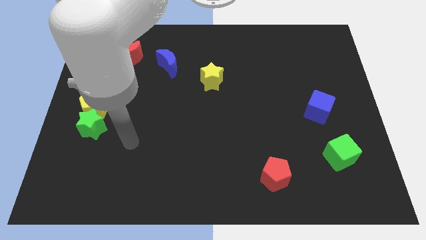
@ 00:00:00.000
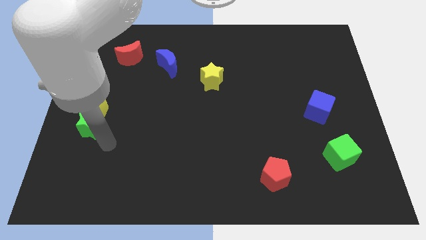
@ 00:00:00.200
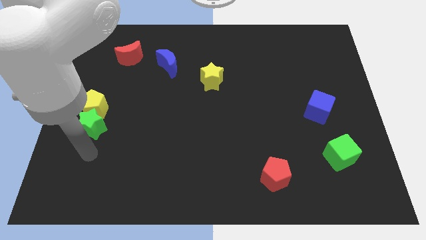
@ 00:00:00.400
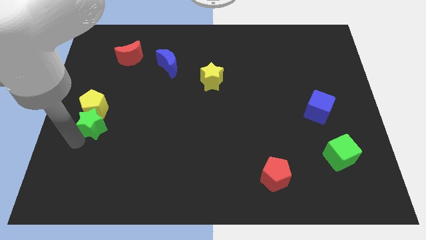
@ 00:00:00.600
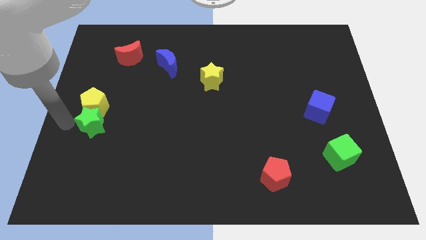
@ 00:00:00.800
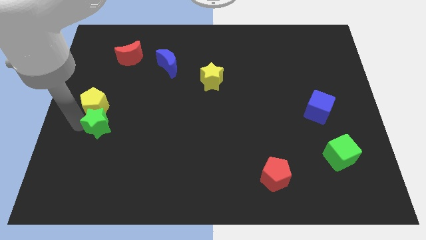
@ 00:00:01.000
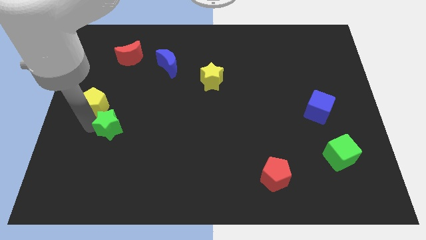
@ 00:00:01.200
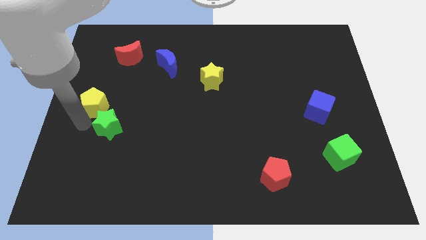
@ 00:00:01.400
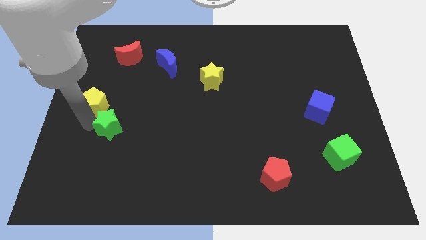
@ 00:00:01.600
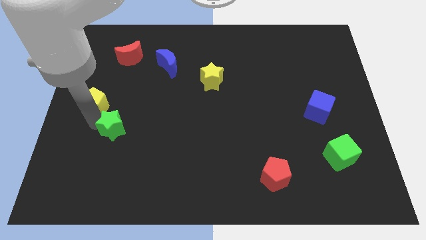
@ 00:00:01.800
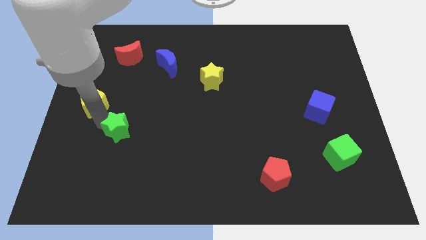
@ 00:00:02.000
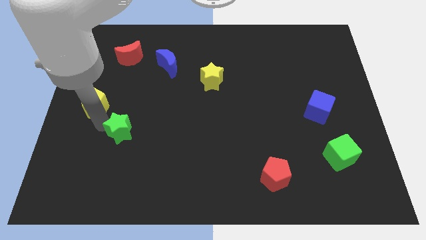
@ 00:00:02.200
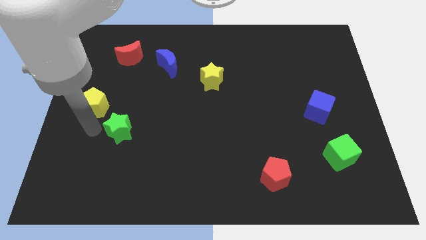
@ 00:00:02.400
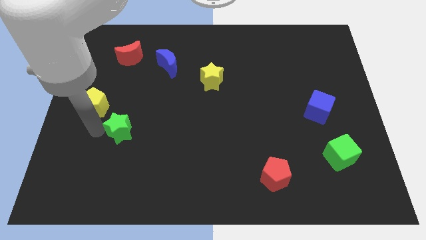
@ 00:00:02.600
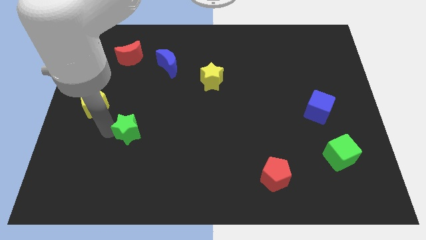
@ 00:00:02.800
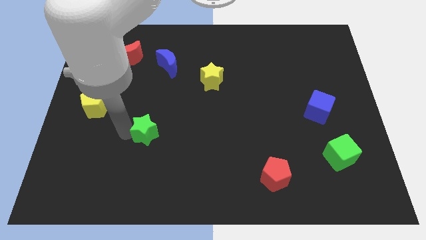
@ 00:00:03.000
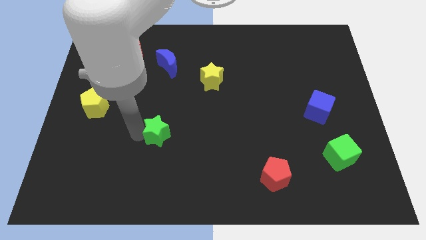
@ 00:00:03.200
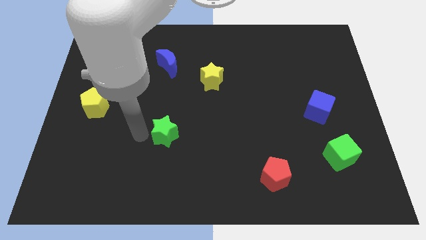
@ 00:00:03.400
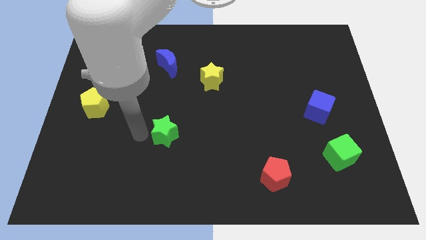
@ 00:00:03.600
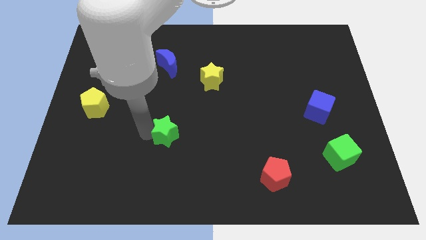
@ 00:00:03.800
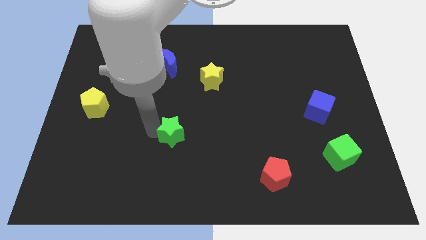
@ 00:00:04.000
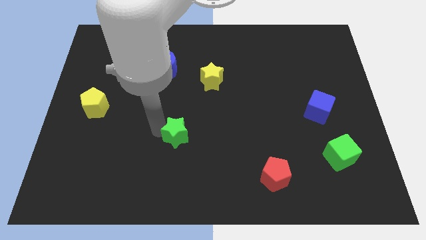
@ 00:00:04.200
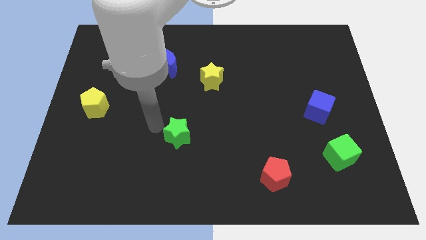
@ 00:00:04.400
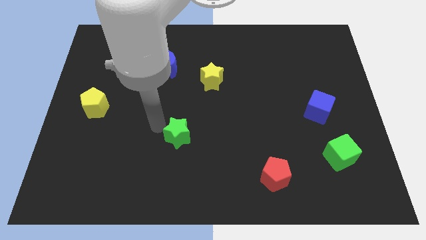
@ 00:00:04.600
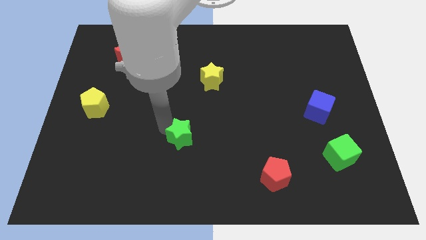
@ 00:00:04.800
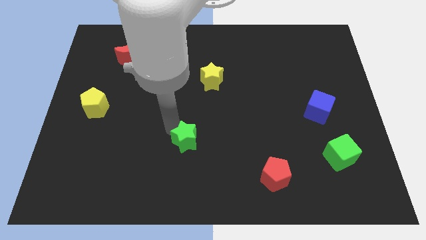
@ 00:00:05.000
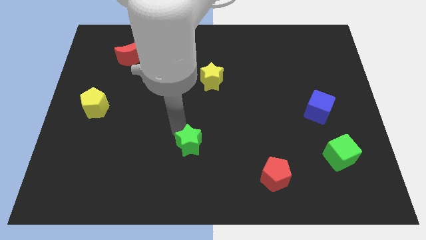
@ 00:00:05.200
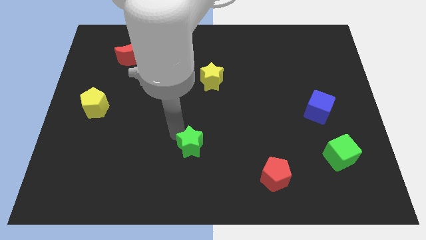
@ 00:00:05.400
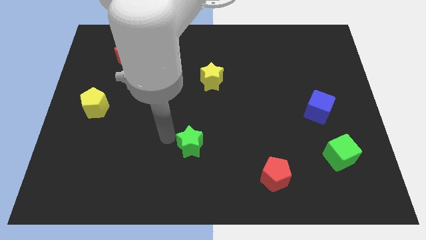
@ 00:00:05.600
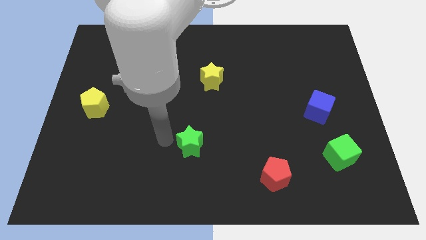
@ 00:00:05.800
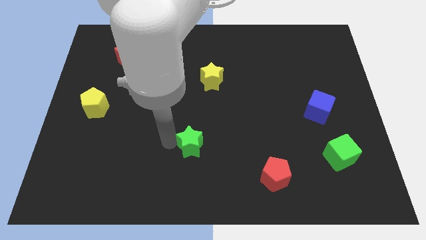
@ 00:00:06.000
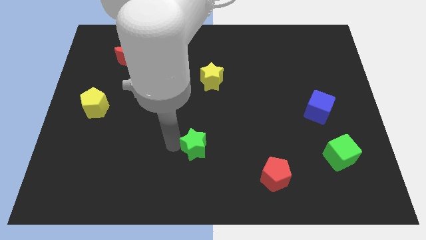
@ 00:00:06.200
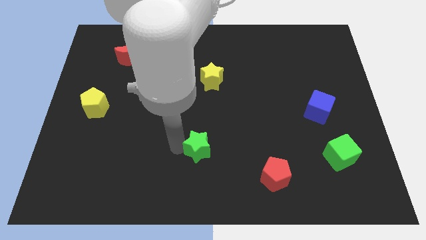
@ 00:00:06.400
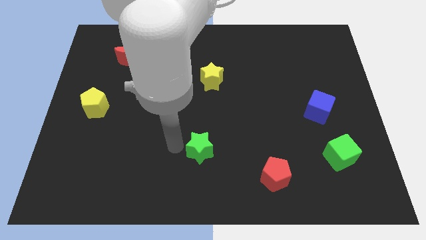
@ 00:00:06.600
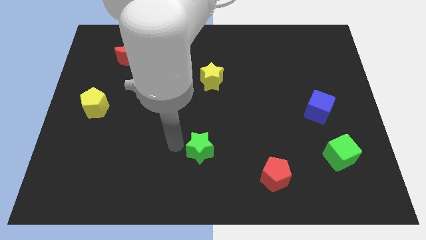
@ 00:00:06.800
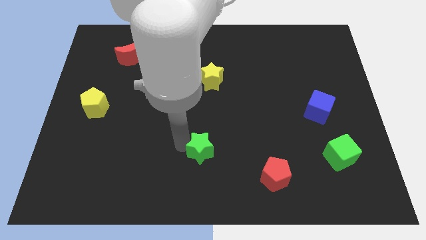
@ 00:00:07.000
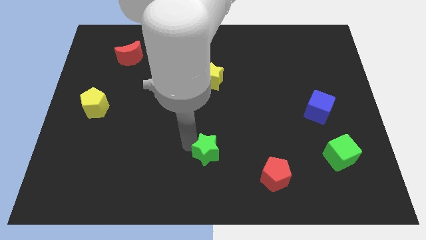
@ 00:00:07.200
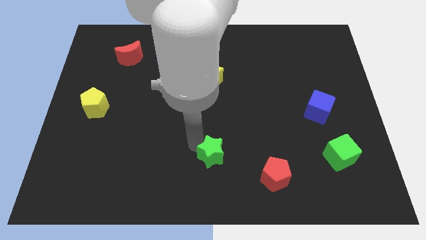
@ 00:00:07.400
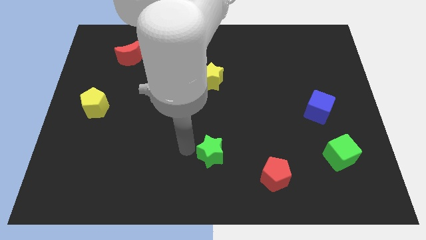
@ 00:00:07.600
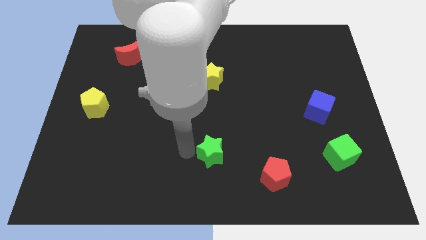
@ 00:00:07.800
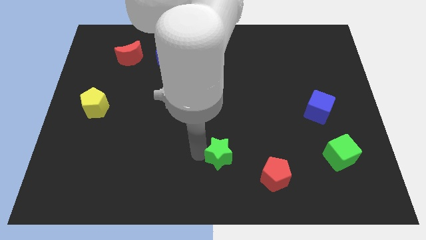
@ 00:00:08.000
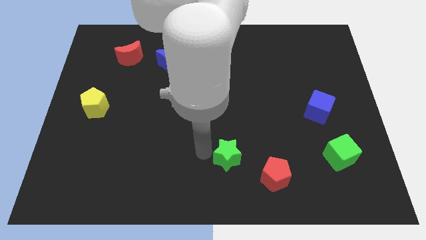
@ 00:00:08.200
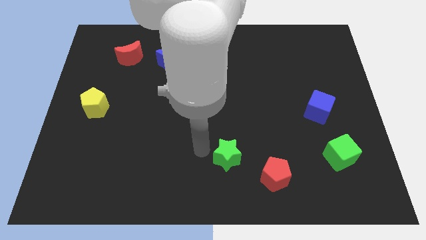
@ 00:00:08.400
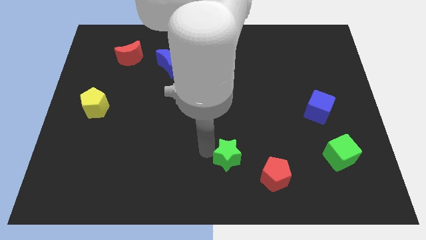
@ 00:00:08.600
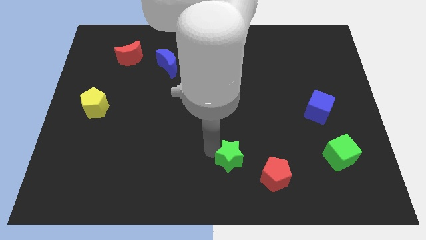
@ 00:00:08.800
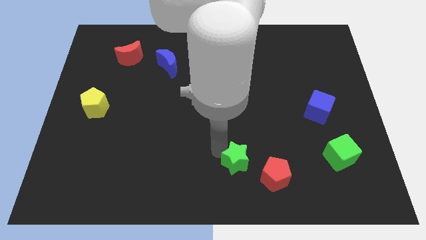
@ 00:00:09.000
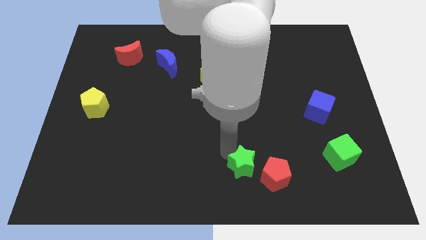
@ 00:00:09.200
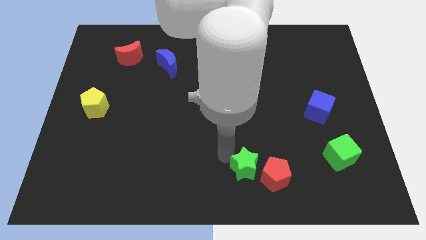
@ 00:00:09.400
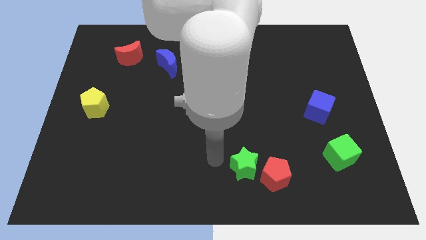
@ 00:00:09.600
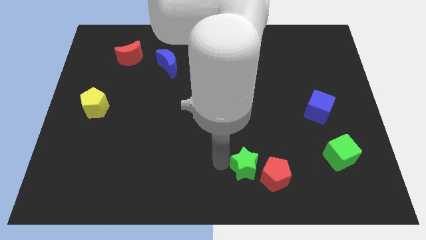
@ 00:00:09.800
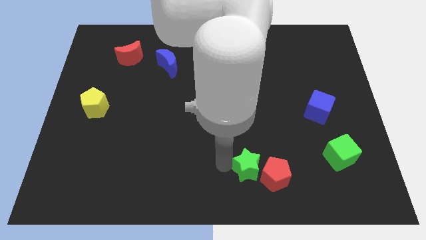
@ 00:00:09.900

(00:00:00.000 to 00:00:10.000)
push the green star towards the red pentagon

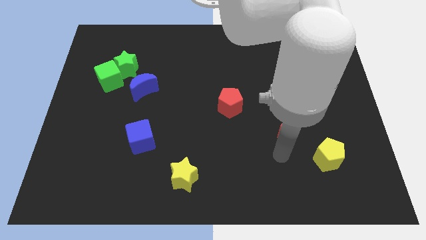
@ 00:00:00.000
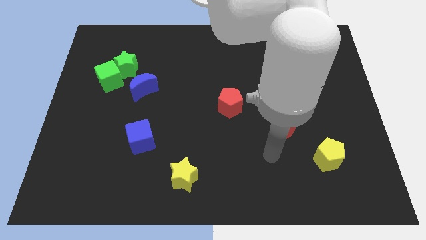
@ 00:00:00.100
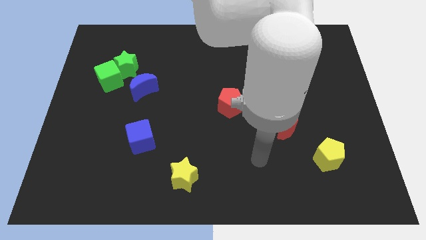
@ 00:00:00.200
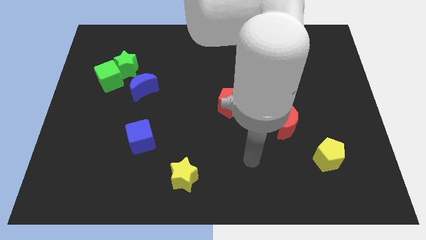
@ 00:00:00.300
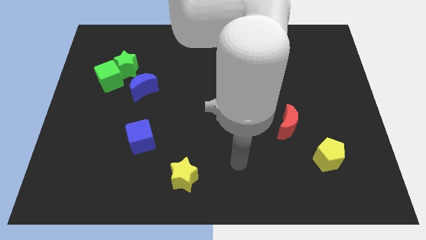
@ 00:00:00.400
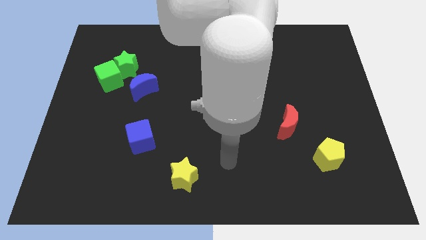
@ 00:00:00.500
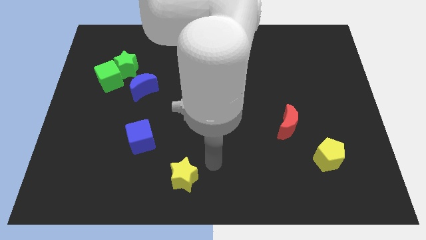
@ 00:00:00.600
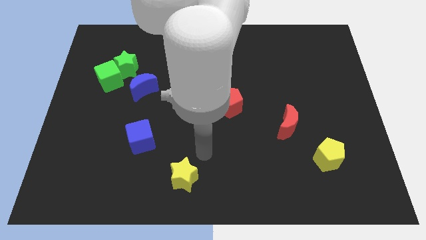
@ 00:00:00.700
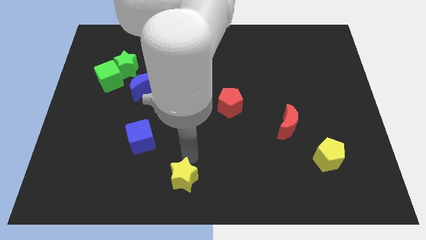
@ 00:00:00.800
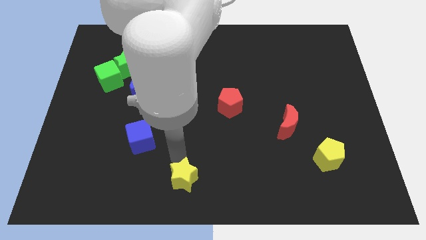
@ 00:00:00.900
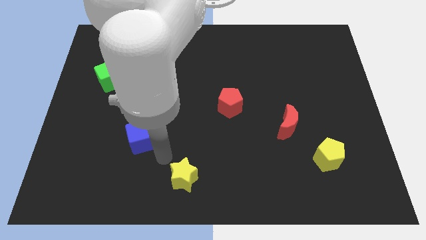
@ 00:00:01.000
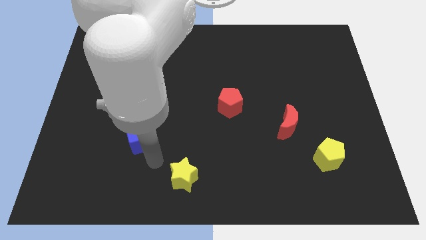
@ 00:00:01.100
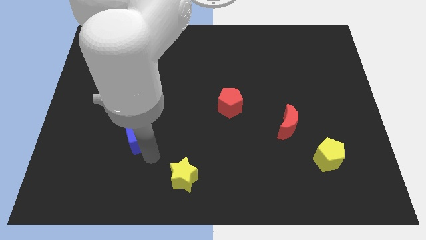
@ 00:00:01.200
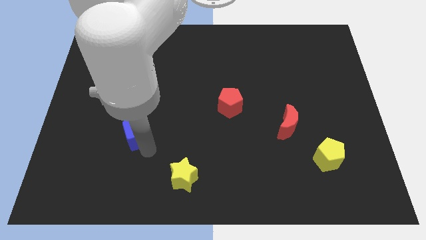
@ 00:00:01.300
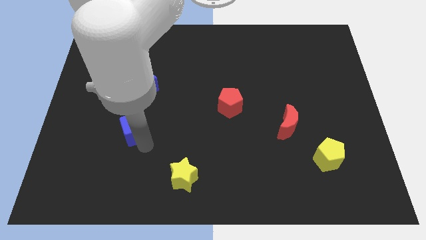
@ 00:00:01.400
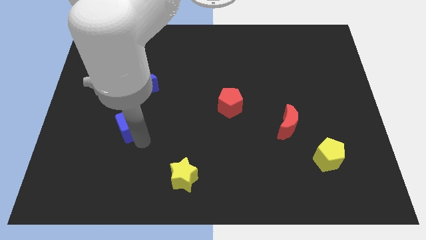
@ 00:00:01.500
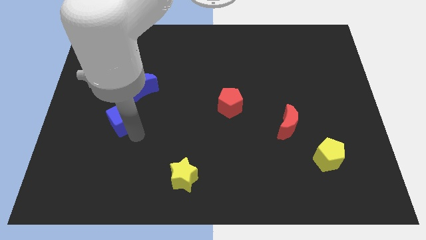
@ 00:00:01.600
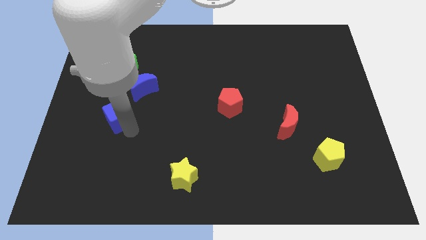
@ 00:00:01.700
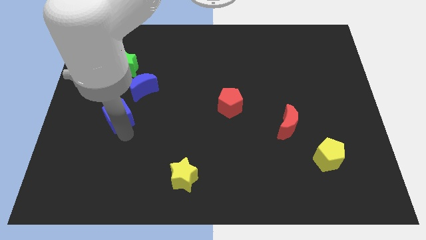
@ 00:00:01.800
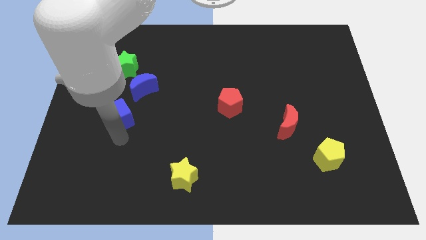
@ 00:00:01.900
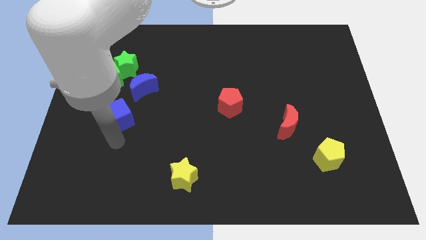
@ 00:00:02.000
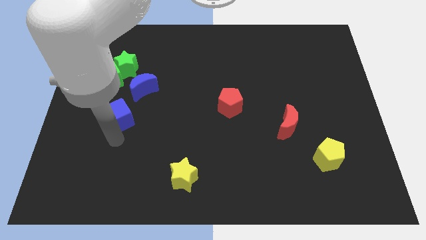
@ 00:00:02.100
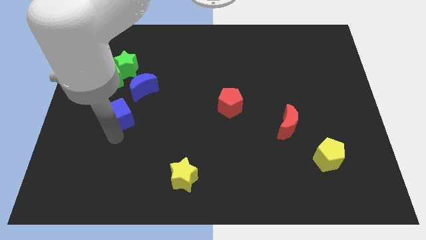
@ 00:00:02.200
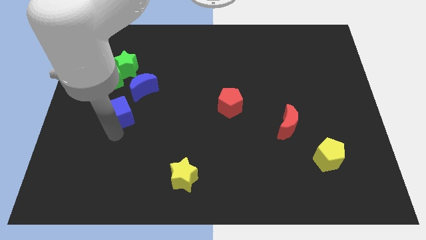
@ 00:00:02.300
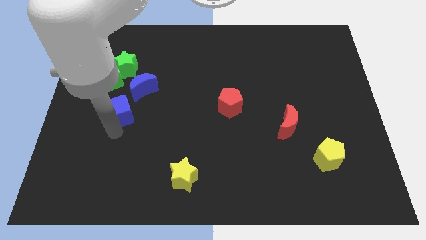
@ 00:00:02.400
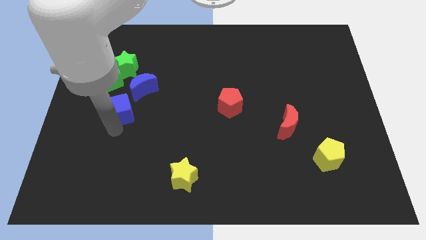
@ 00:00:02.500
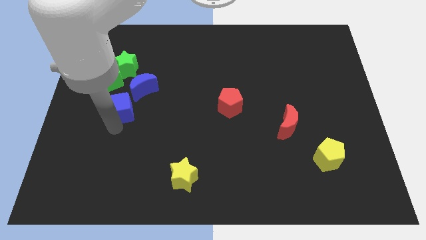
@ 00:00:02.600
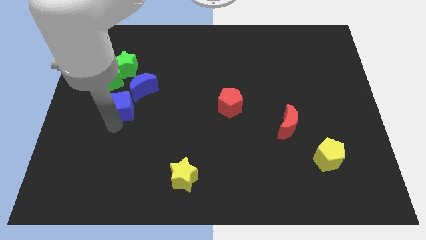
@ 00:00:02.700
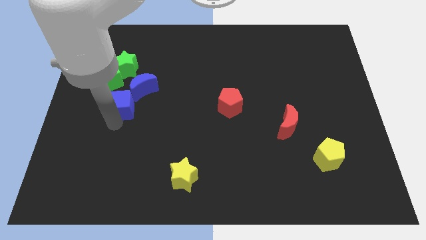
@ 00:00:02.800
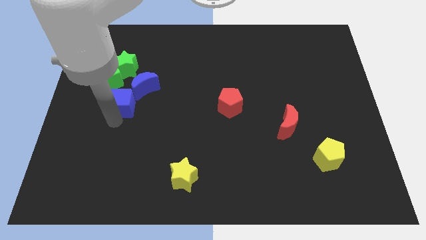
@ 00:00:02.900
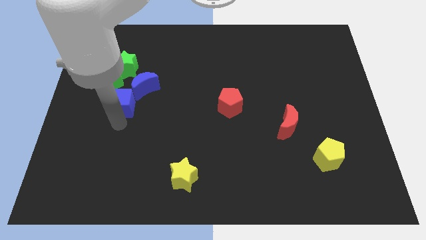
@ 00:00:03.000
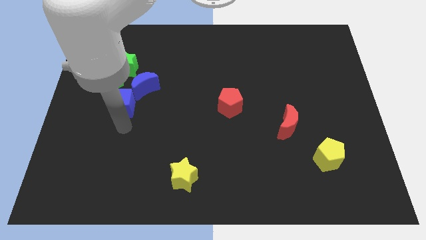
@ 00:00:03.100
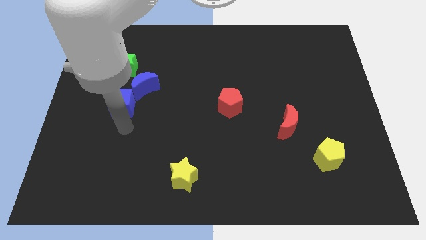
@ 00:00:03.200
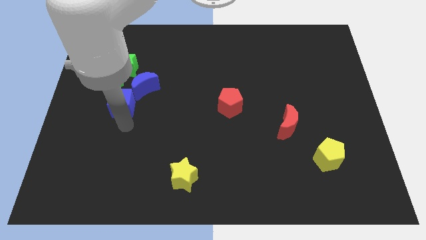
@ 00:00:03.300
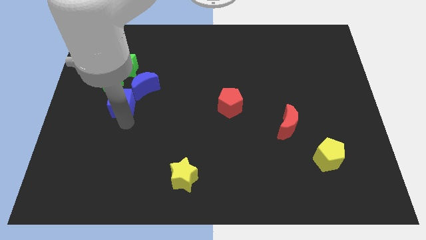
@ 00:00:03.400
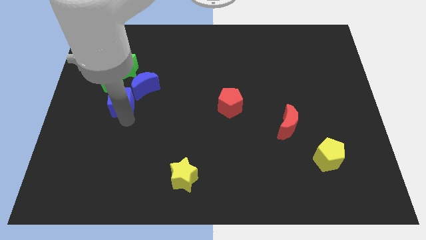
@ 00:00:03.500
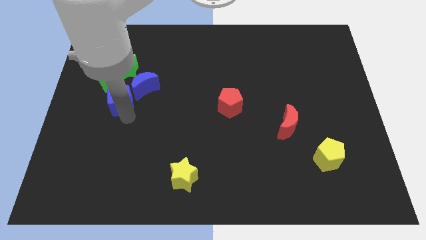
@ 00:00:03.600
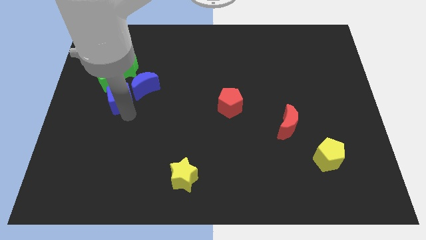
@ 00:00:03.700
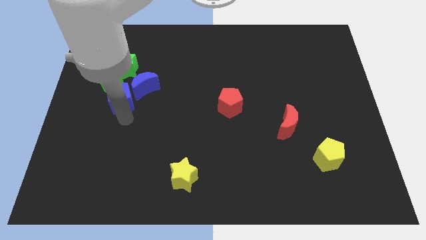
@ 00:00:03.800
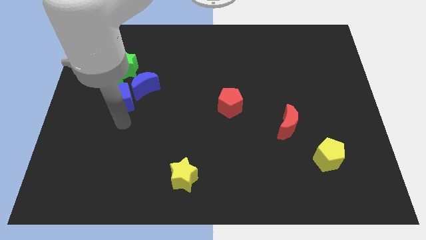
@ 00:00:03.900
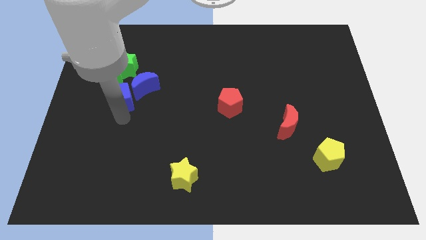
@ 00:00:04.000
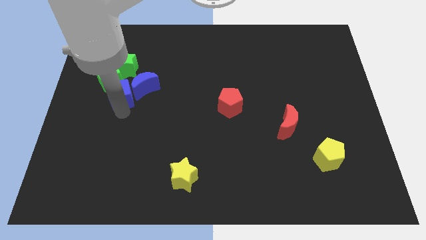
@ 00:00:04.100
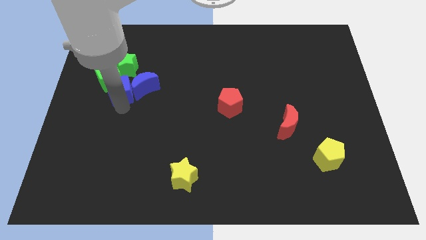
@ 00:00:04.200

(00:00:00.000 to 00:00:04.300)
put the blue cube towards the green cube
